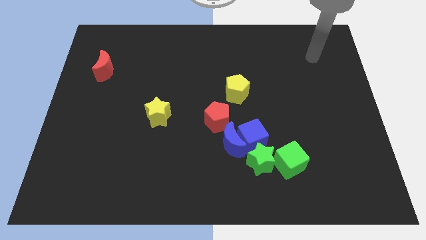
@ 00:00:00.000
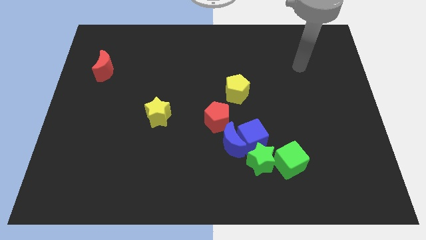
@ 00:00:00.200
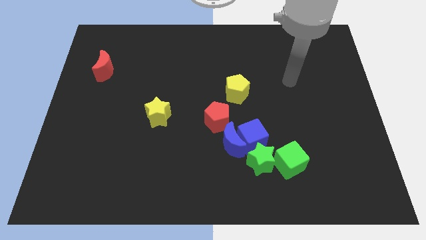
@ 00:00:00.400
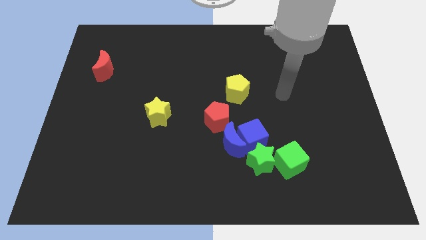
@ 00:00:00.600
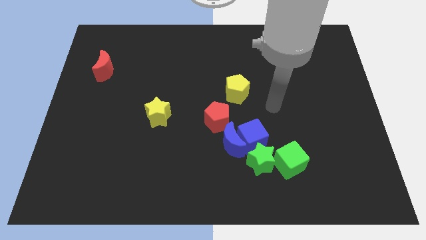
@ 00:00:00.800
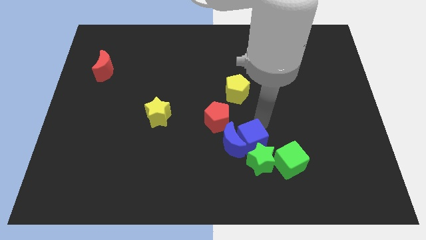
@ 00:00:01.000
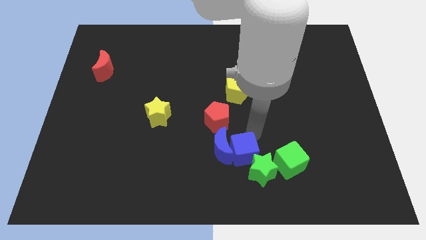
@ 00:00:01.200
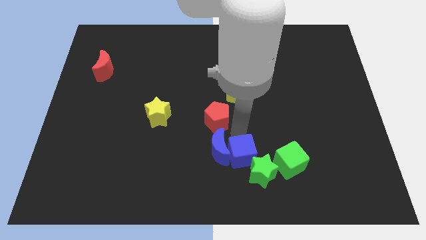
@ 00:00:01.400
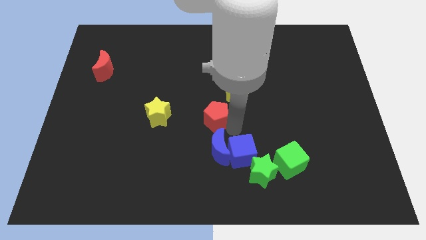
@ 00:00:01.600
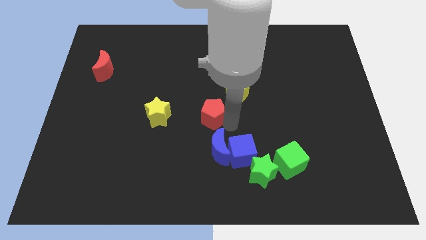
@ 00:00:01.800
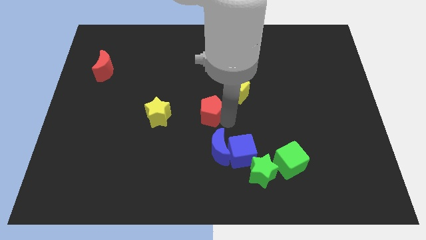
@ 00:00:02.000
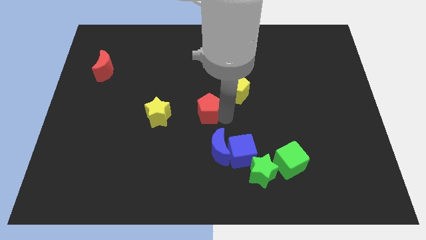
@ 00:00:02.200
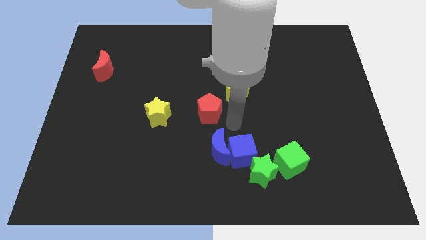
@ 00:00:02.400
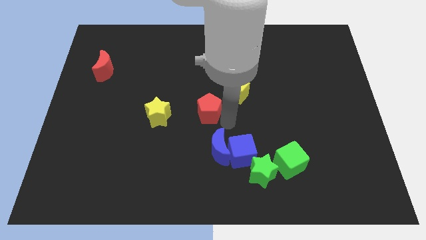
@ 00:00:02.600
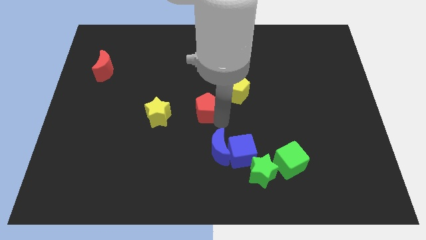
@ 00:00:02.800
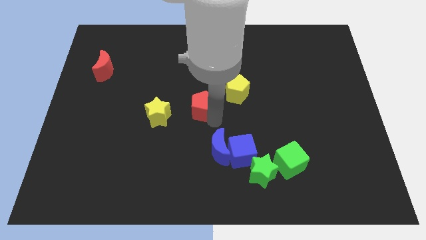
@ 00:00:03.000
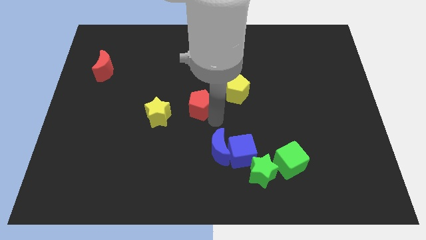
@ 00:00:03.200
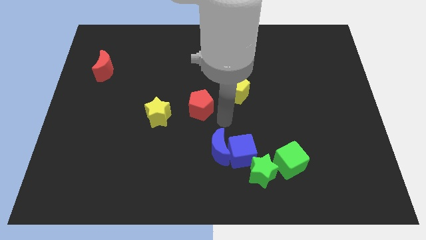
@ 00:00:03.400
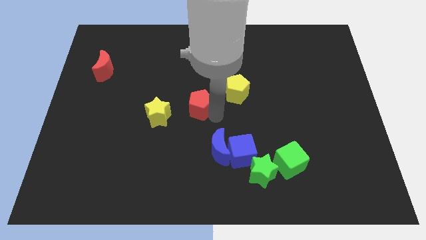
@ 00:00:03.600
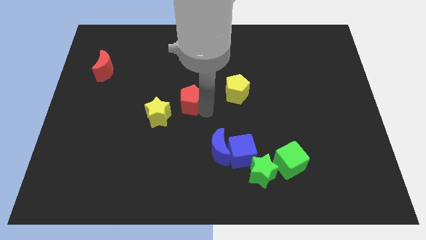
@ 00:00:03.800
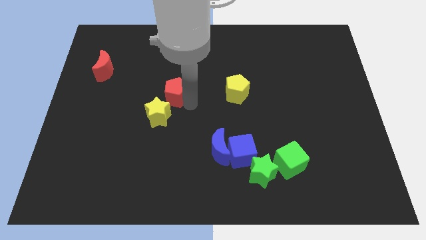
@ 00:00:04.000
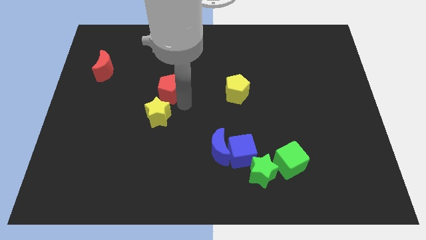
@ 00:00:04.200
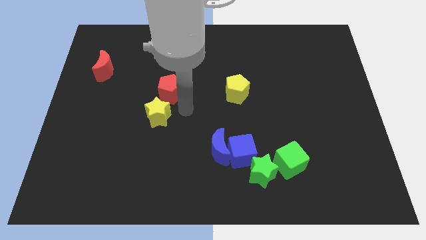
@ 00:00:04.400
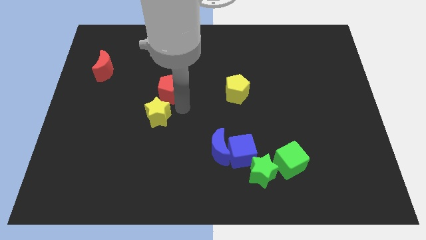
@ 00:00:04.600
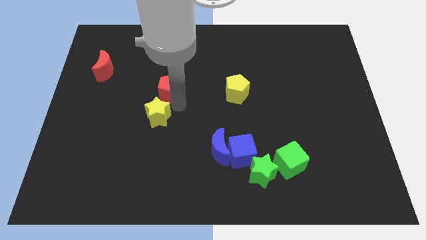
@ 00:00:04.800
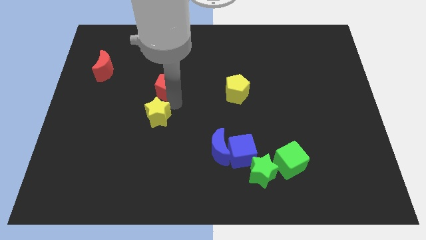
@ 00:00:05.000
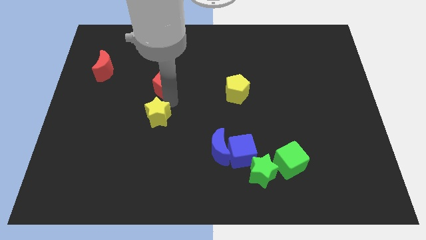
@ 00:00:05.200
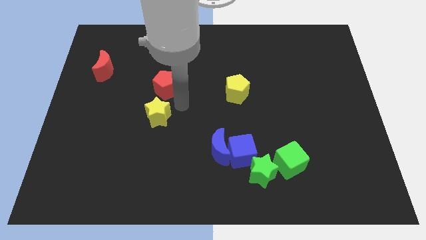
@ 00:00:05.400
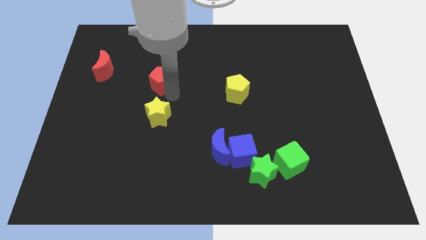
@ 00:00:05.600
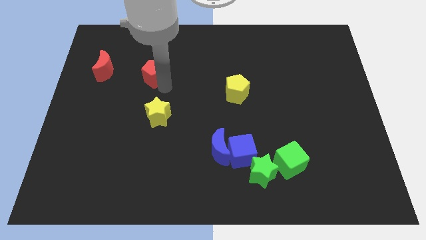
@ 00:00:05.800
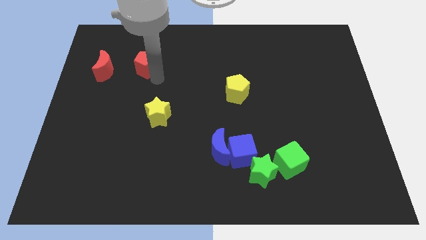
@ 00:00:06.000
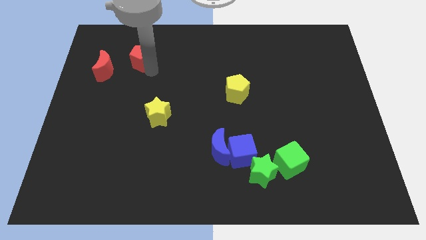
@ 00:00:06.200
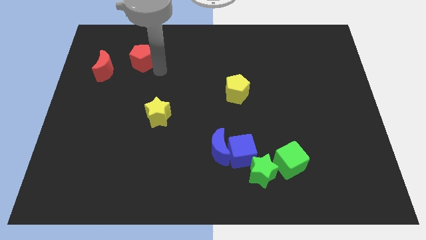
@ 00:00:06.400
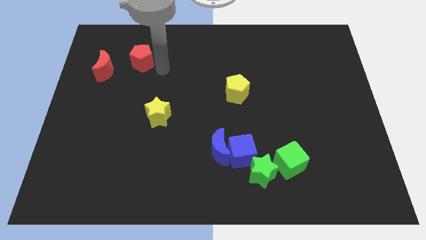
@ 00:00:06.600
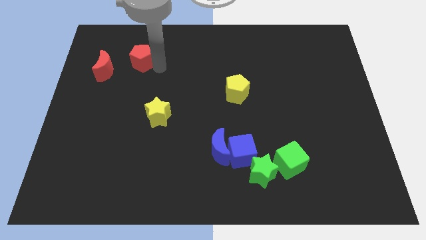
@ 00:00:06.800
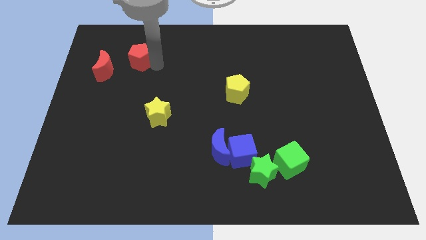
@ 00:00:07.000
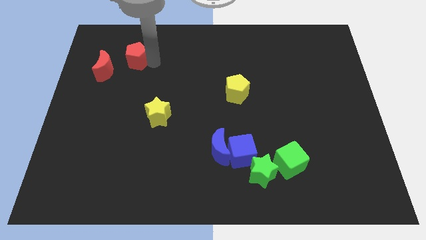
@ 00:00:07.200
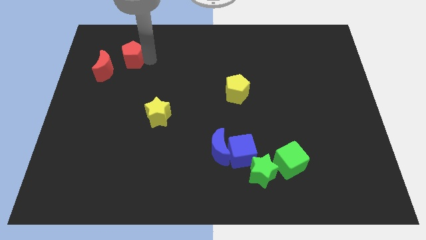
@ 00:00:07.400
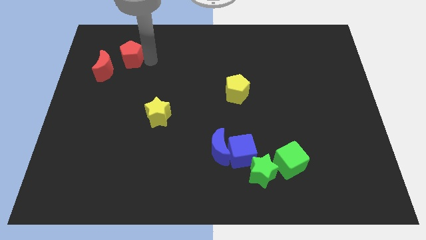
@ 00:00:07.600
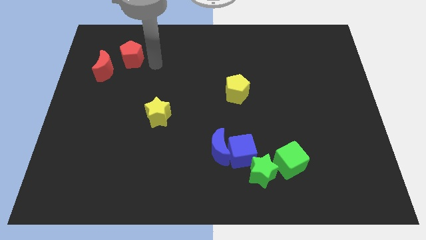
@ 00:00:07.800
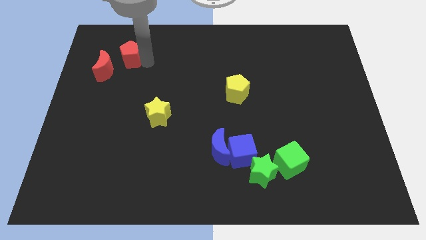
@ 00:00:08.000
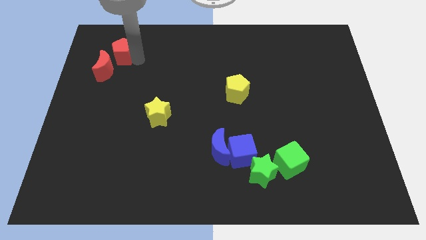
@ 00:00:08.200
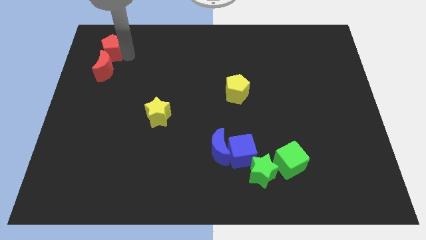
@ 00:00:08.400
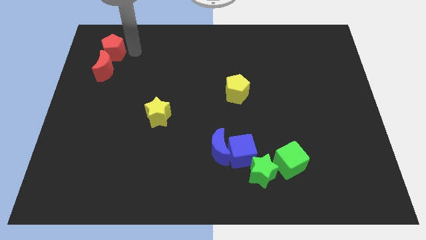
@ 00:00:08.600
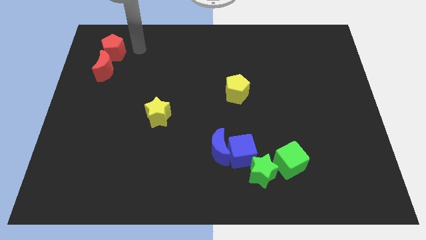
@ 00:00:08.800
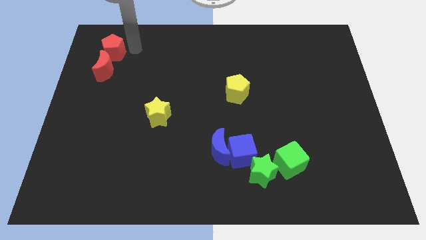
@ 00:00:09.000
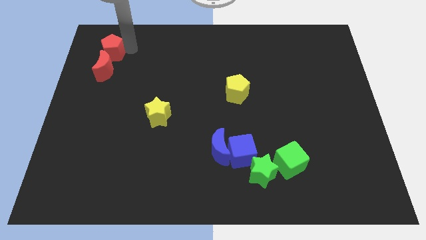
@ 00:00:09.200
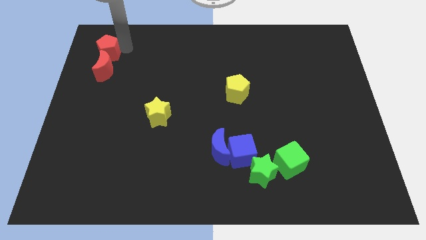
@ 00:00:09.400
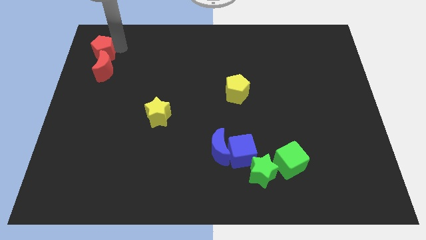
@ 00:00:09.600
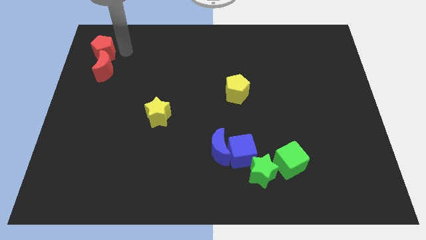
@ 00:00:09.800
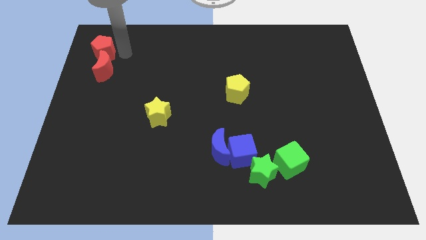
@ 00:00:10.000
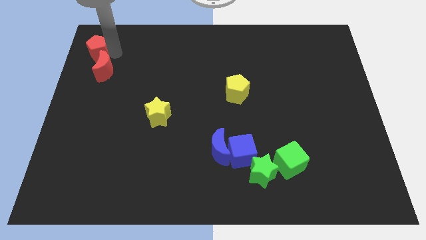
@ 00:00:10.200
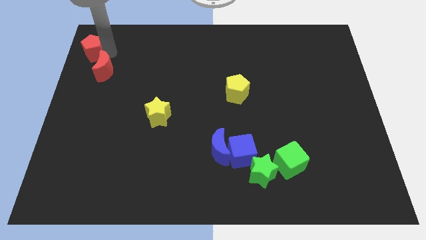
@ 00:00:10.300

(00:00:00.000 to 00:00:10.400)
push the red pentagon to the top left corner

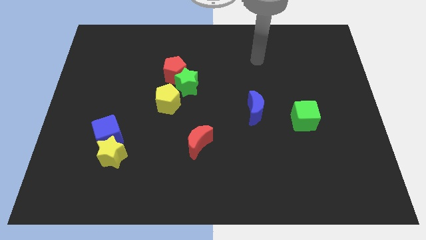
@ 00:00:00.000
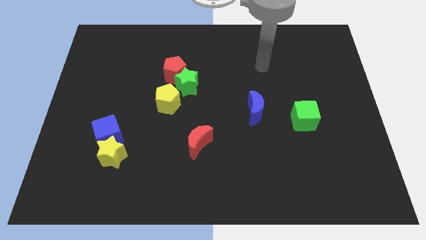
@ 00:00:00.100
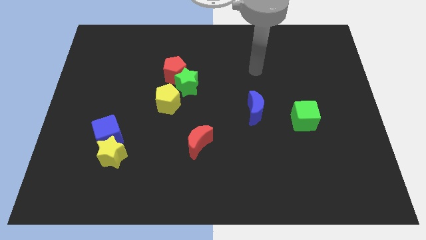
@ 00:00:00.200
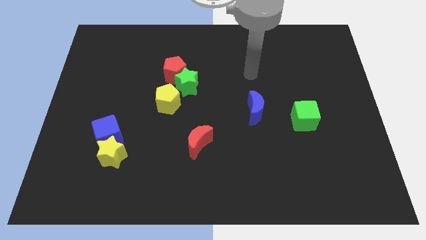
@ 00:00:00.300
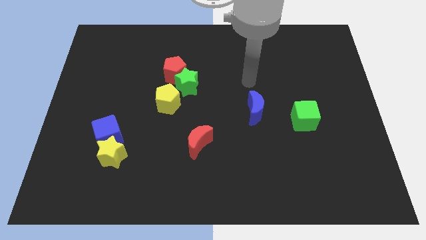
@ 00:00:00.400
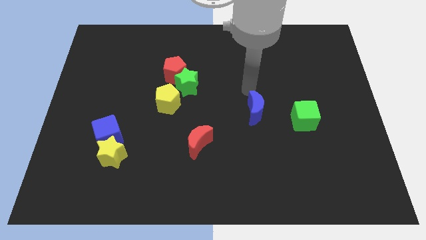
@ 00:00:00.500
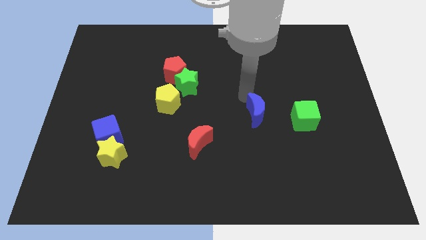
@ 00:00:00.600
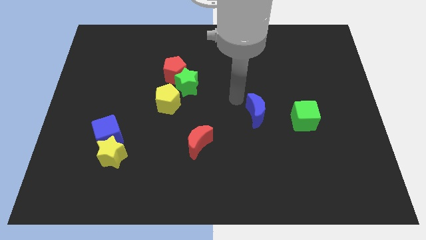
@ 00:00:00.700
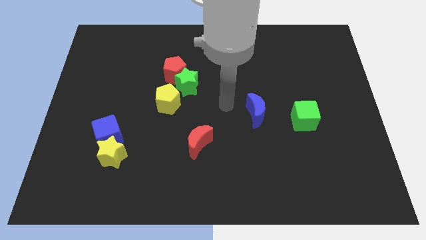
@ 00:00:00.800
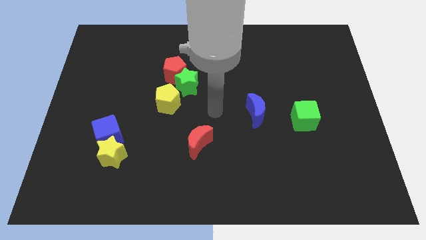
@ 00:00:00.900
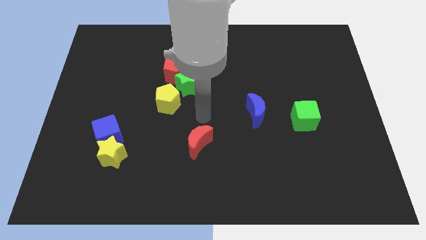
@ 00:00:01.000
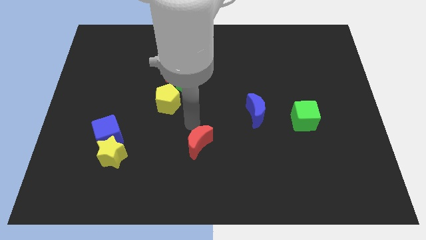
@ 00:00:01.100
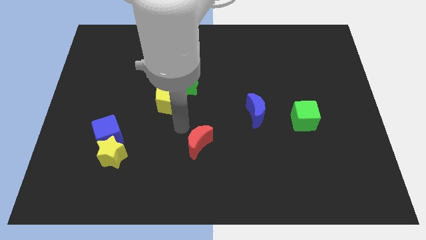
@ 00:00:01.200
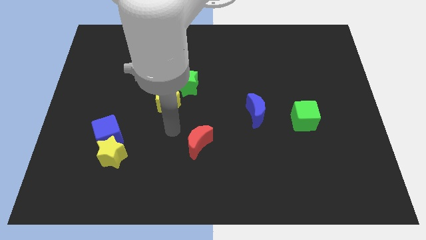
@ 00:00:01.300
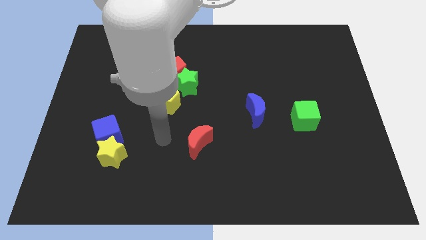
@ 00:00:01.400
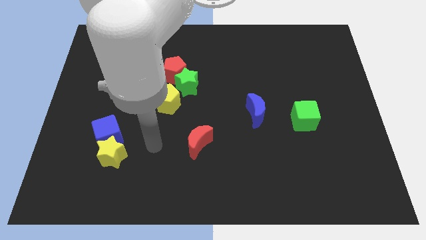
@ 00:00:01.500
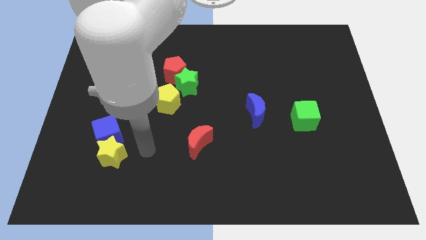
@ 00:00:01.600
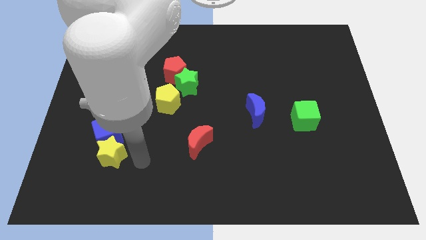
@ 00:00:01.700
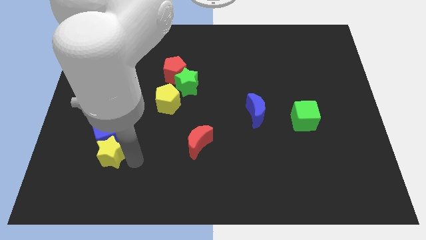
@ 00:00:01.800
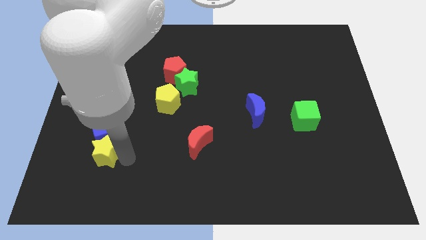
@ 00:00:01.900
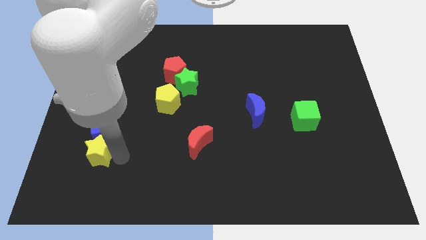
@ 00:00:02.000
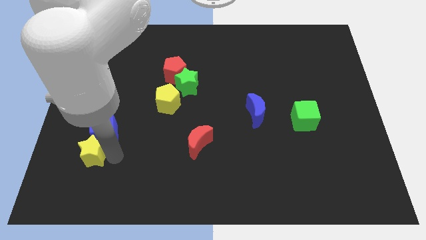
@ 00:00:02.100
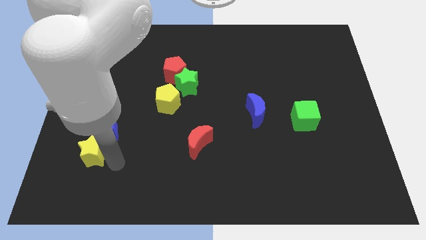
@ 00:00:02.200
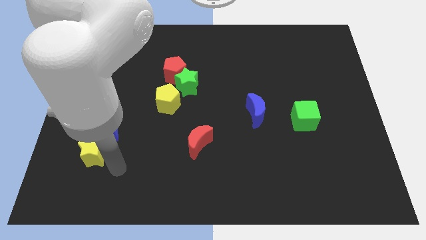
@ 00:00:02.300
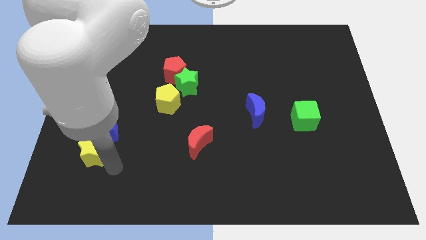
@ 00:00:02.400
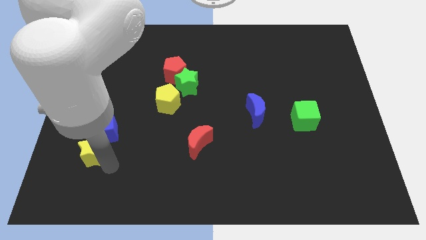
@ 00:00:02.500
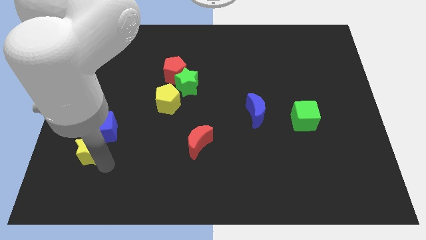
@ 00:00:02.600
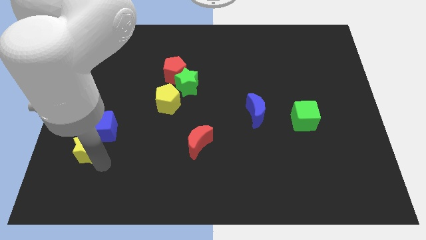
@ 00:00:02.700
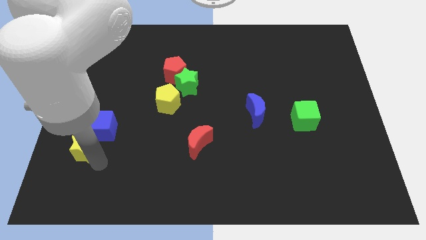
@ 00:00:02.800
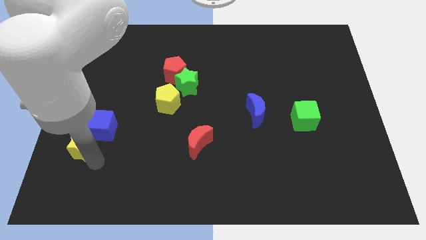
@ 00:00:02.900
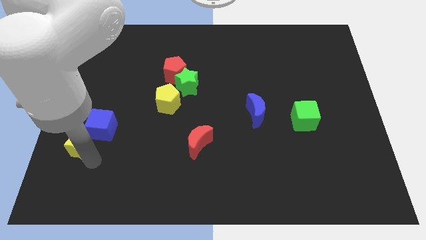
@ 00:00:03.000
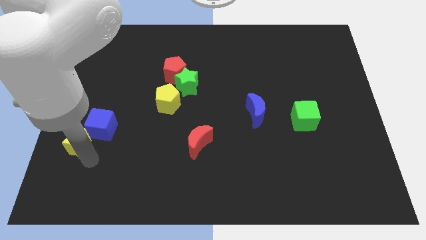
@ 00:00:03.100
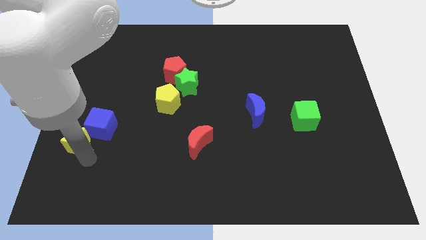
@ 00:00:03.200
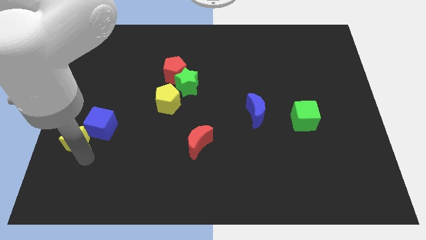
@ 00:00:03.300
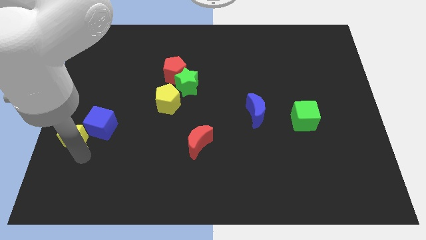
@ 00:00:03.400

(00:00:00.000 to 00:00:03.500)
move the yellow star to the left side of the board
